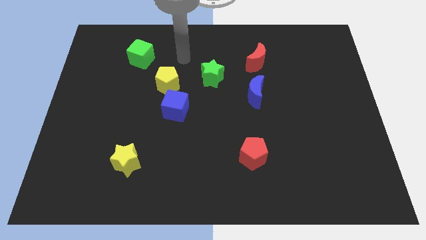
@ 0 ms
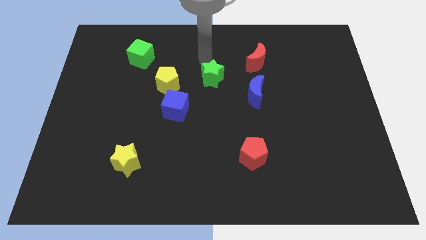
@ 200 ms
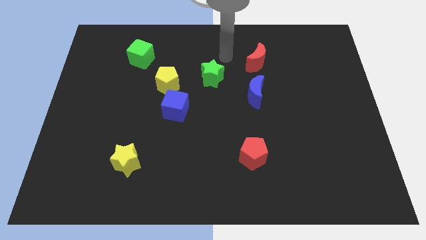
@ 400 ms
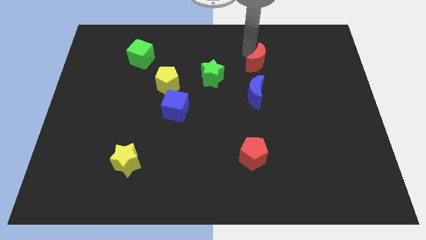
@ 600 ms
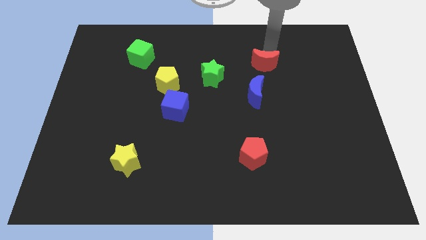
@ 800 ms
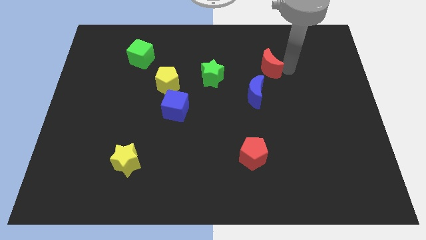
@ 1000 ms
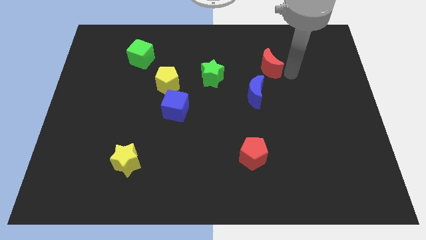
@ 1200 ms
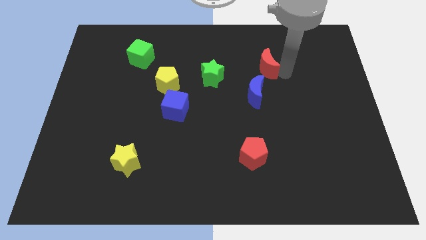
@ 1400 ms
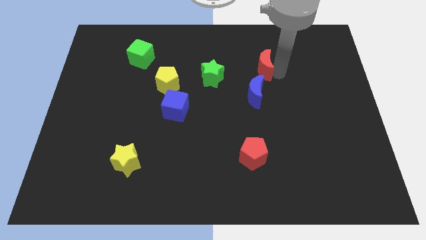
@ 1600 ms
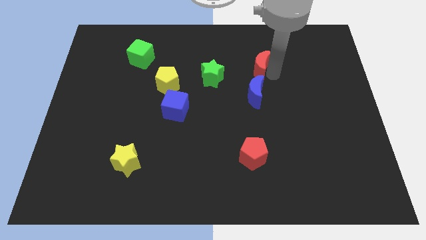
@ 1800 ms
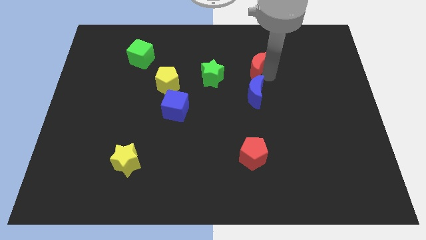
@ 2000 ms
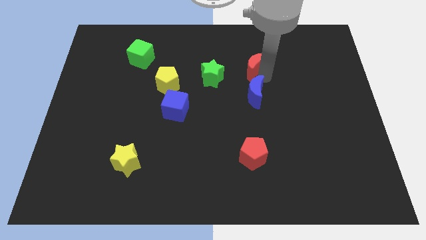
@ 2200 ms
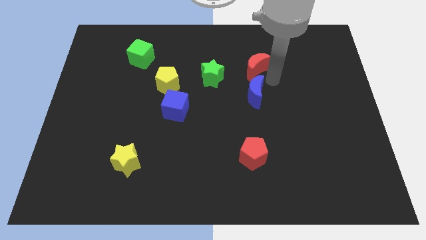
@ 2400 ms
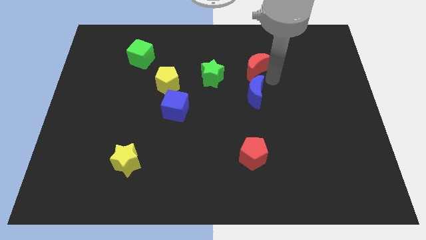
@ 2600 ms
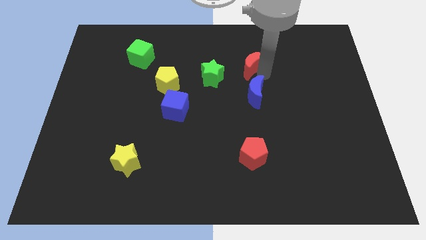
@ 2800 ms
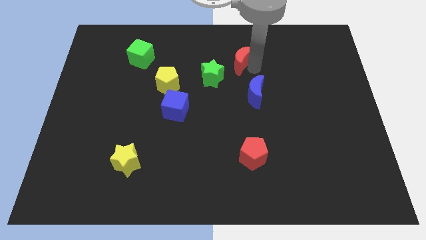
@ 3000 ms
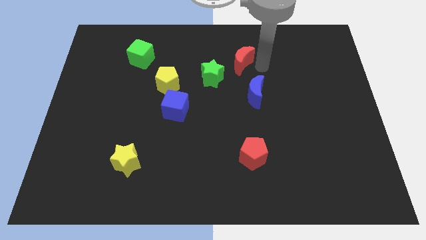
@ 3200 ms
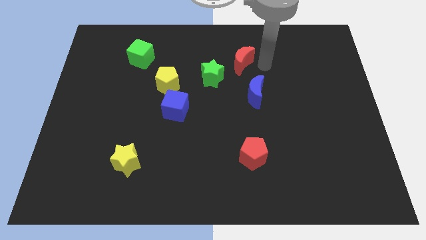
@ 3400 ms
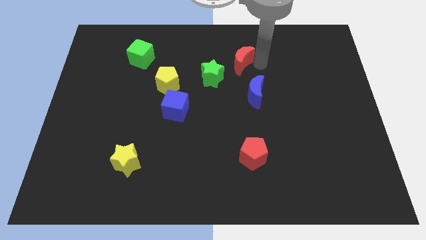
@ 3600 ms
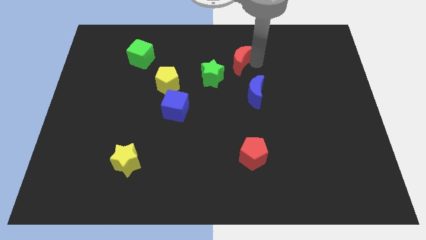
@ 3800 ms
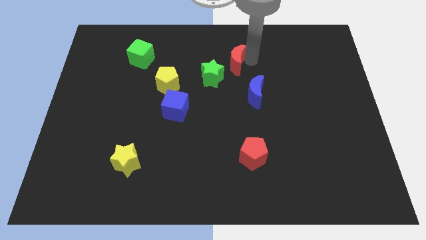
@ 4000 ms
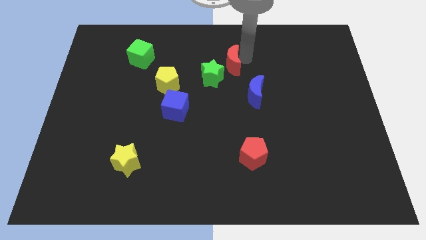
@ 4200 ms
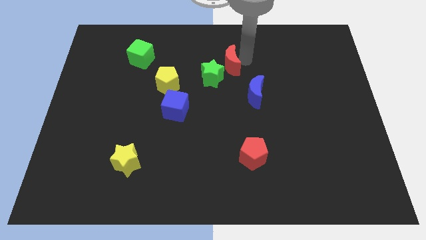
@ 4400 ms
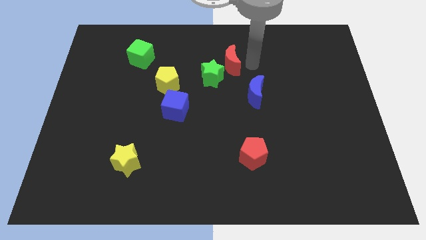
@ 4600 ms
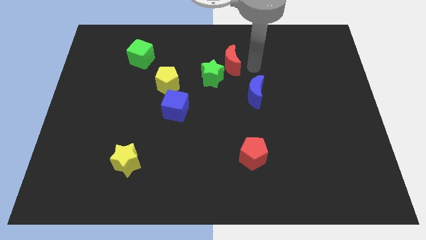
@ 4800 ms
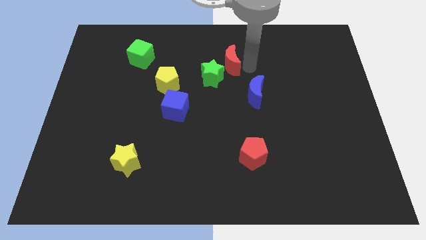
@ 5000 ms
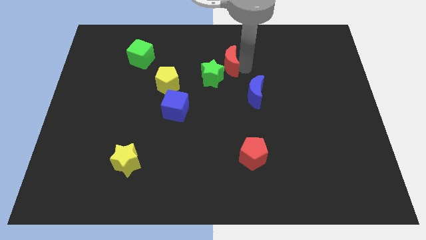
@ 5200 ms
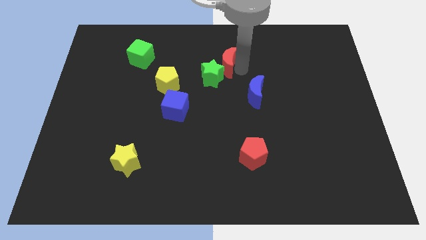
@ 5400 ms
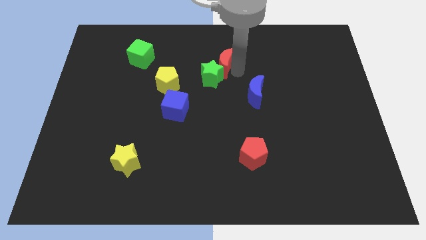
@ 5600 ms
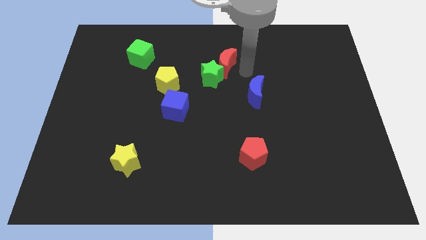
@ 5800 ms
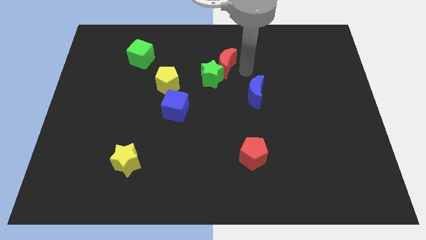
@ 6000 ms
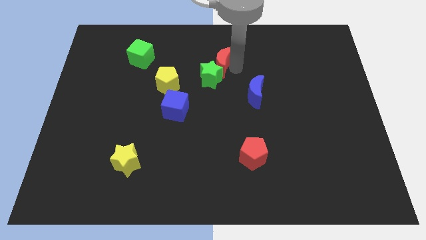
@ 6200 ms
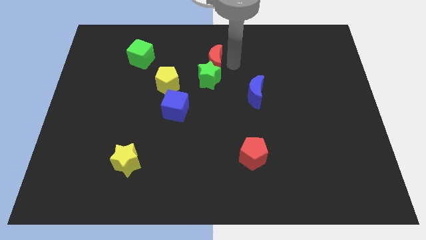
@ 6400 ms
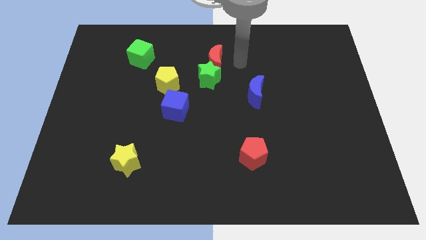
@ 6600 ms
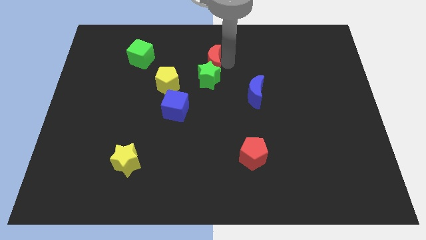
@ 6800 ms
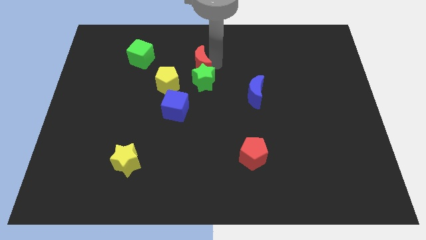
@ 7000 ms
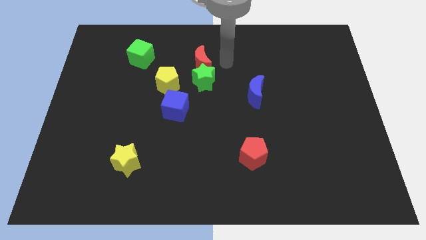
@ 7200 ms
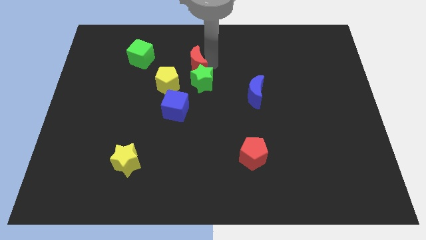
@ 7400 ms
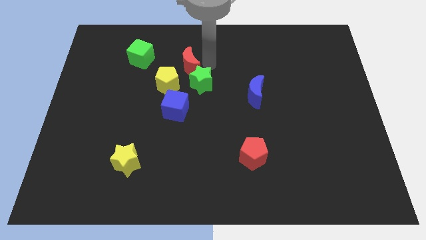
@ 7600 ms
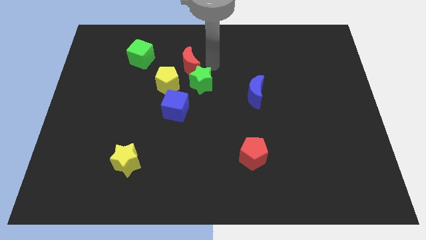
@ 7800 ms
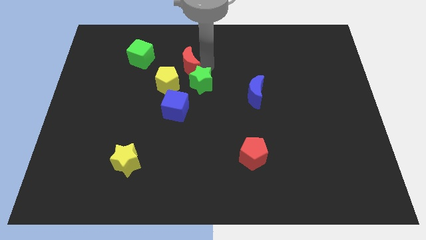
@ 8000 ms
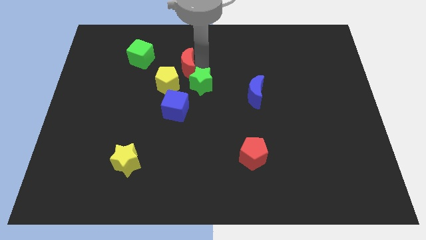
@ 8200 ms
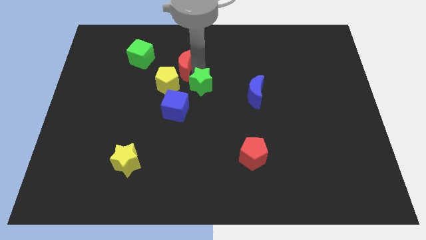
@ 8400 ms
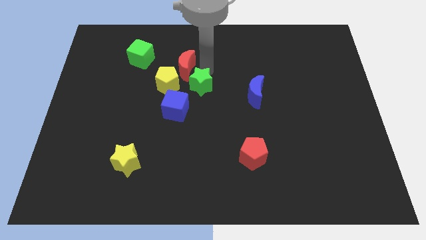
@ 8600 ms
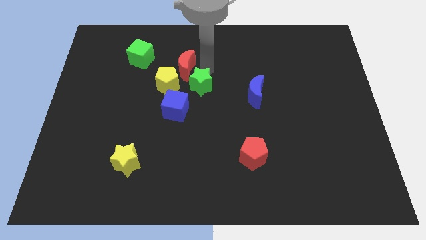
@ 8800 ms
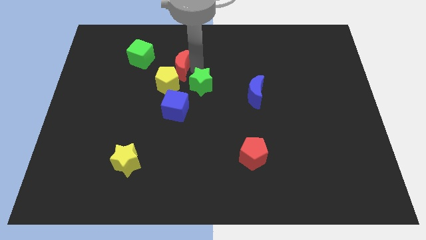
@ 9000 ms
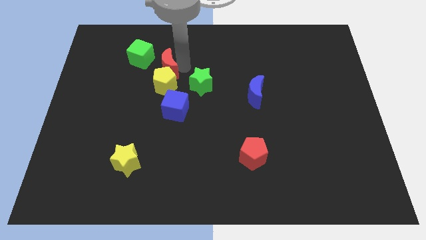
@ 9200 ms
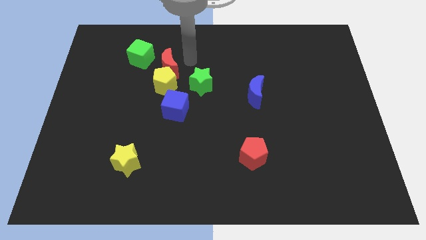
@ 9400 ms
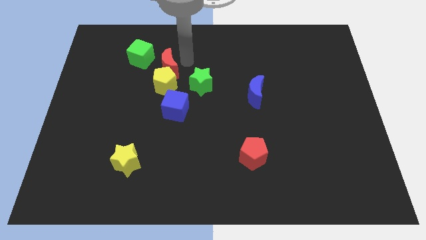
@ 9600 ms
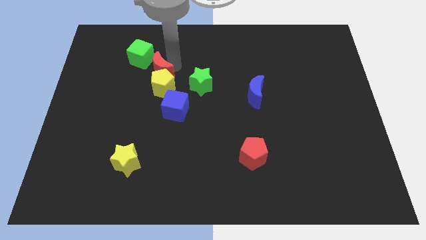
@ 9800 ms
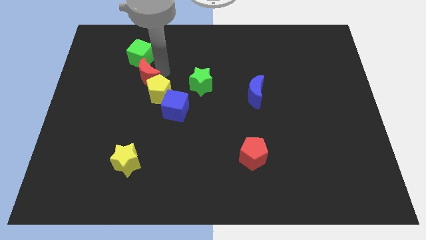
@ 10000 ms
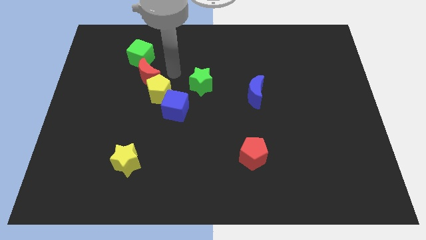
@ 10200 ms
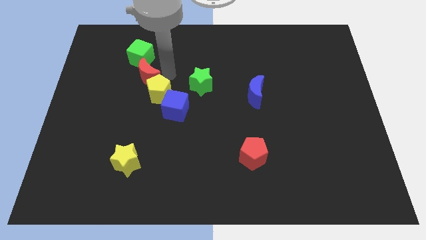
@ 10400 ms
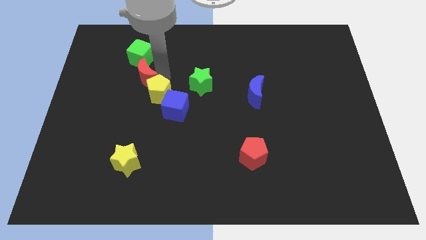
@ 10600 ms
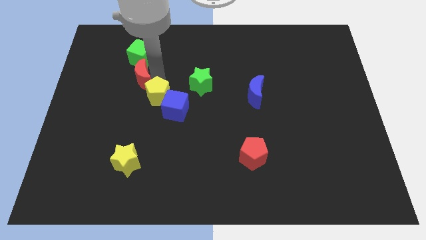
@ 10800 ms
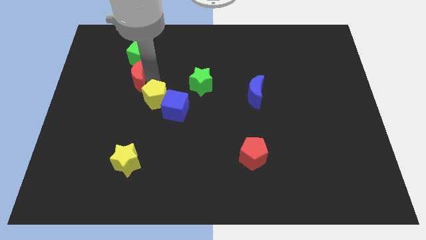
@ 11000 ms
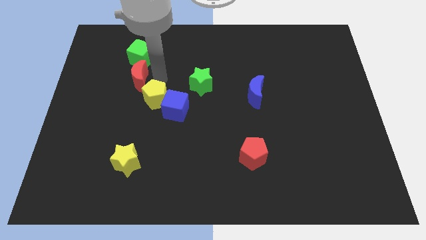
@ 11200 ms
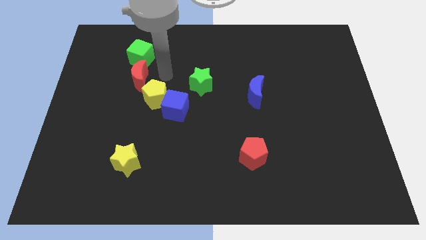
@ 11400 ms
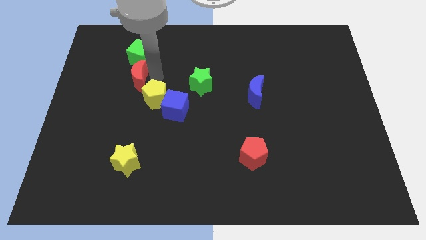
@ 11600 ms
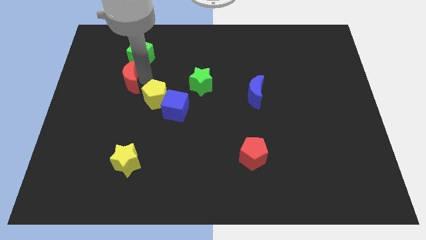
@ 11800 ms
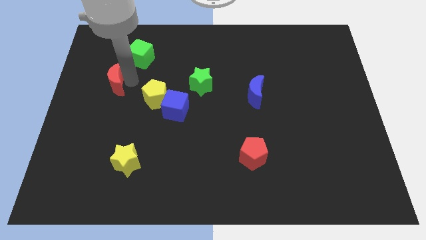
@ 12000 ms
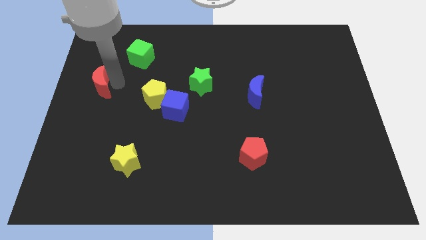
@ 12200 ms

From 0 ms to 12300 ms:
slide the red moon to the left side
